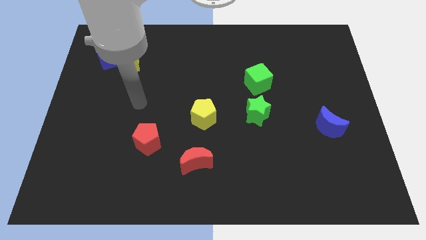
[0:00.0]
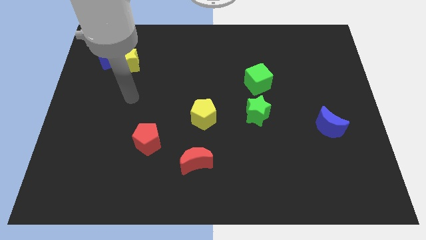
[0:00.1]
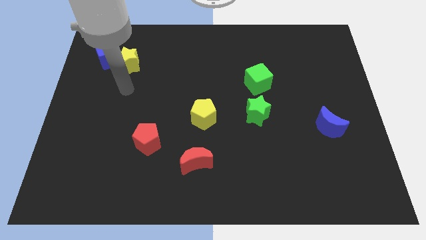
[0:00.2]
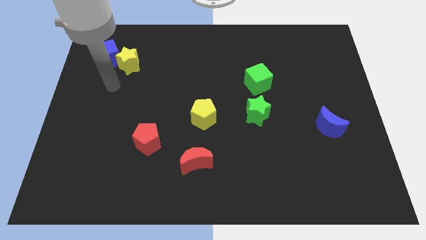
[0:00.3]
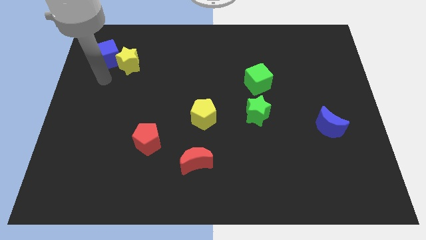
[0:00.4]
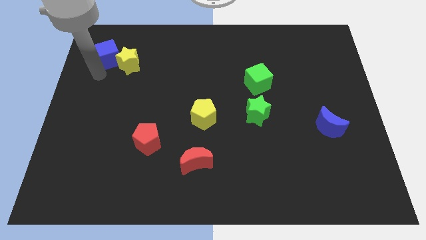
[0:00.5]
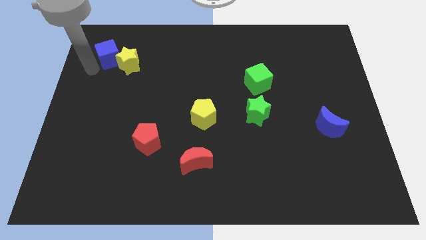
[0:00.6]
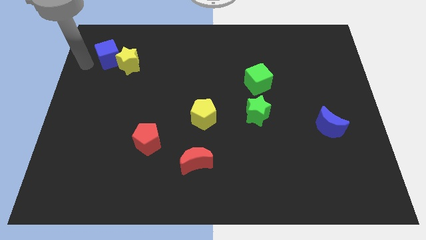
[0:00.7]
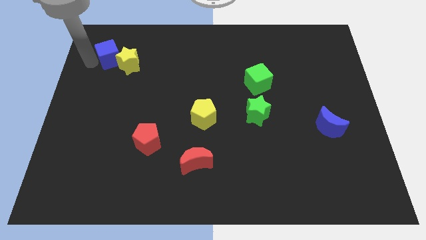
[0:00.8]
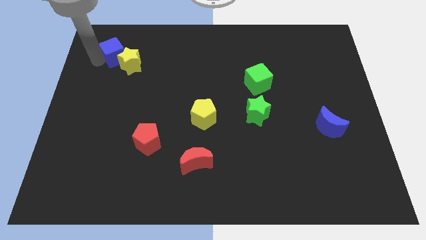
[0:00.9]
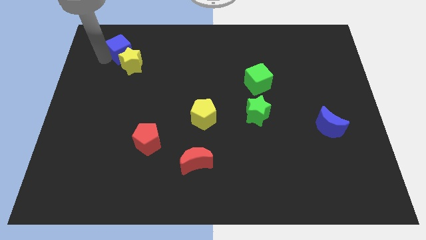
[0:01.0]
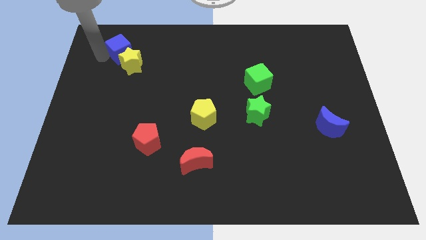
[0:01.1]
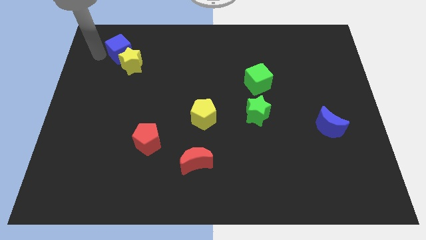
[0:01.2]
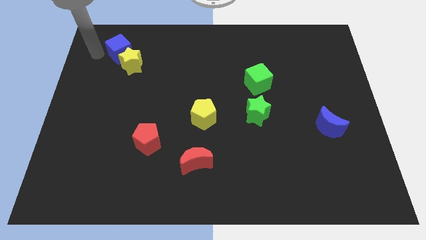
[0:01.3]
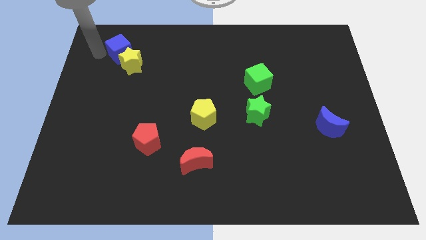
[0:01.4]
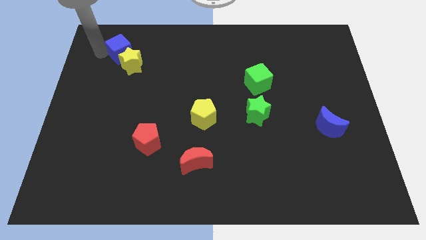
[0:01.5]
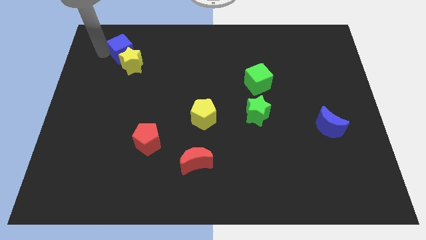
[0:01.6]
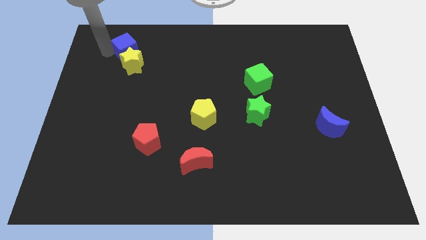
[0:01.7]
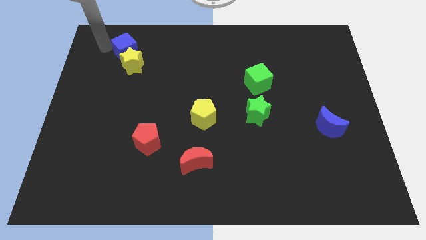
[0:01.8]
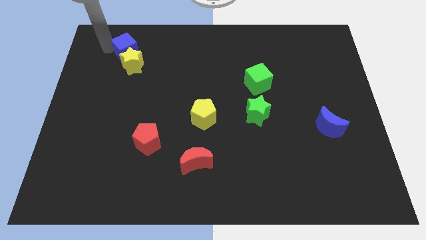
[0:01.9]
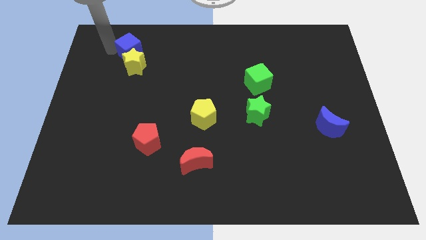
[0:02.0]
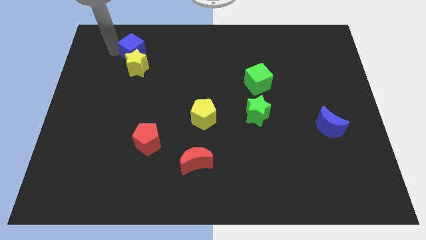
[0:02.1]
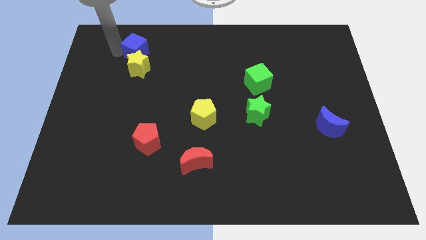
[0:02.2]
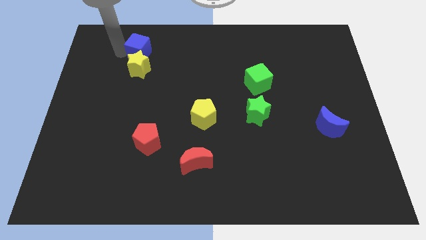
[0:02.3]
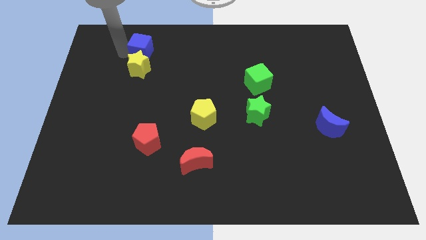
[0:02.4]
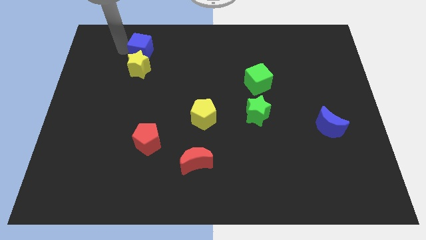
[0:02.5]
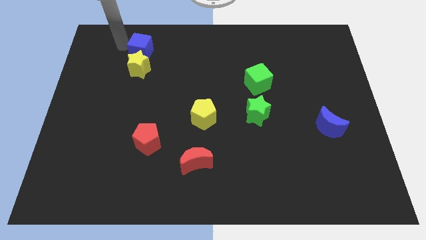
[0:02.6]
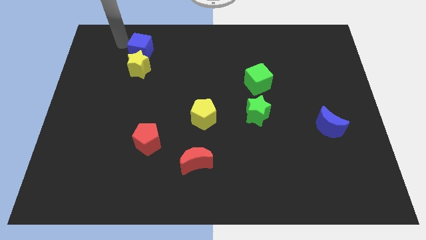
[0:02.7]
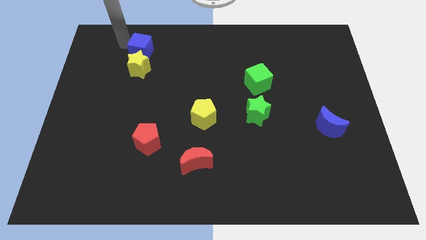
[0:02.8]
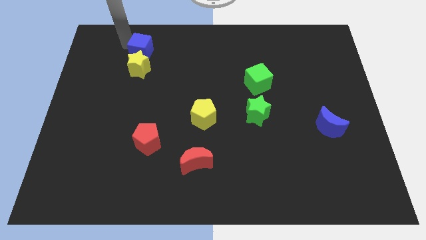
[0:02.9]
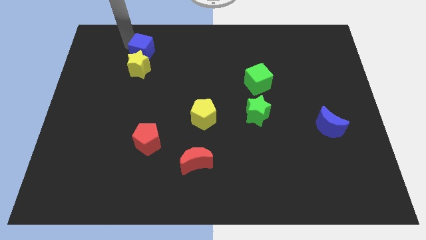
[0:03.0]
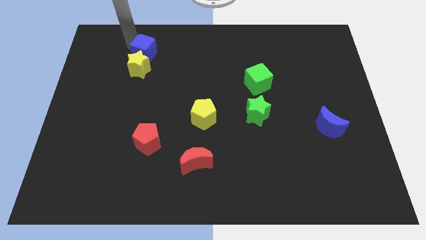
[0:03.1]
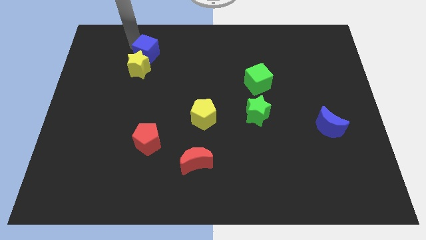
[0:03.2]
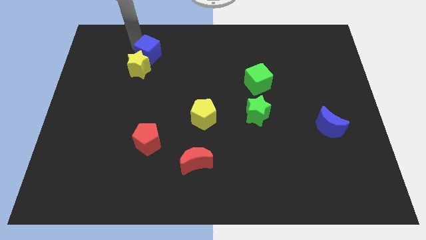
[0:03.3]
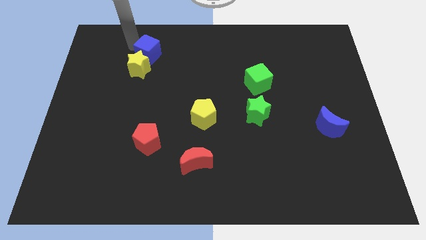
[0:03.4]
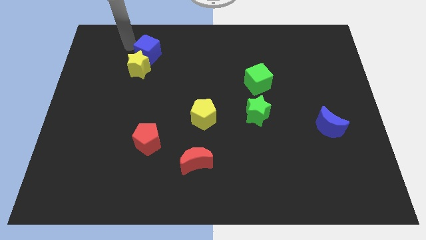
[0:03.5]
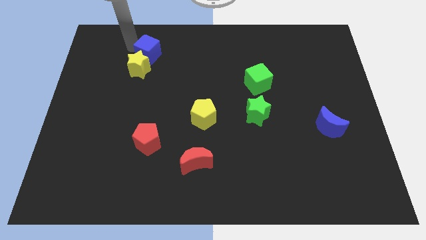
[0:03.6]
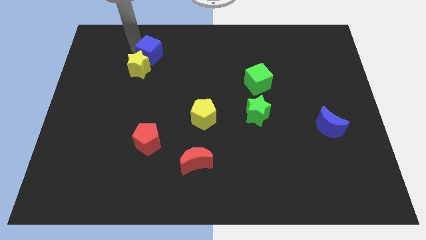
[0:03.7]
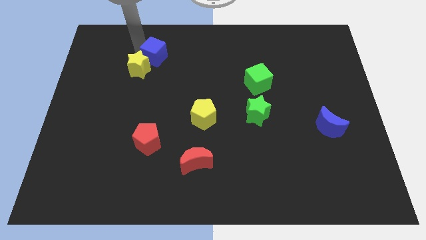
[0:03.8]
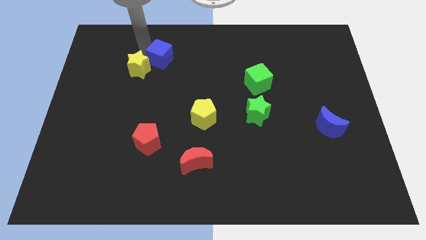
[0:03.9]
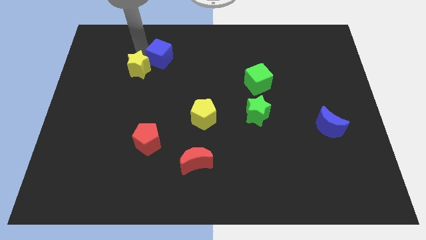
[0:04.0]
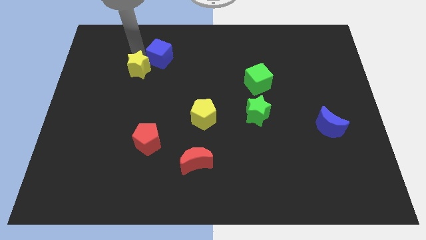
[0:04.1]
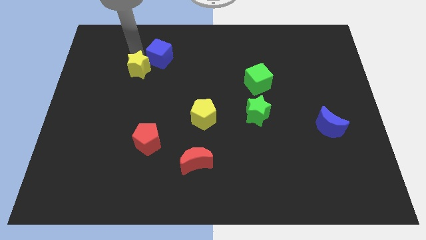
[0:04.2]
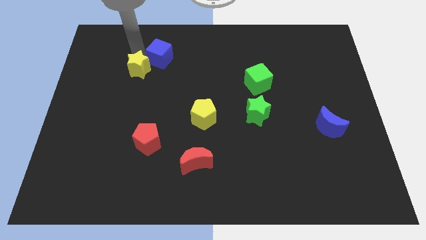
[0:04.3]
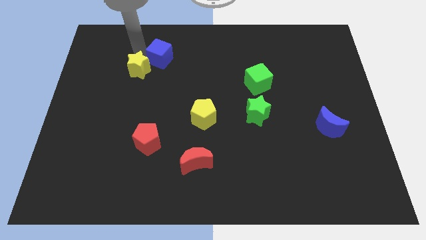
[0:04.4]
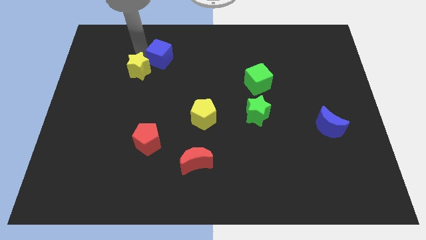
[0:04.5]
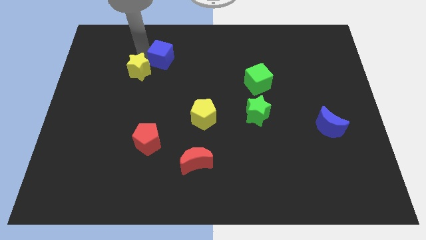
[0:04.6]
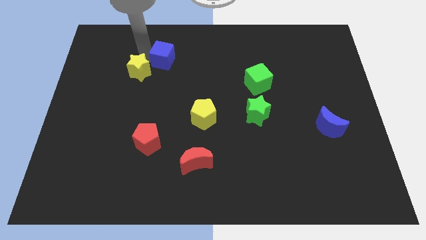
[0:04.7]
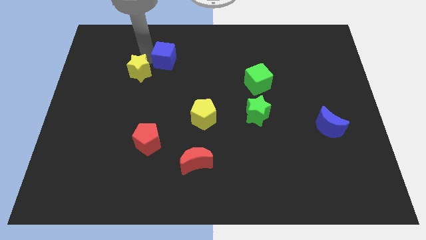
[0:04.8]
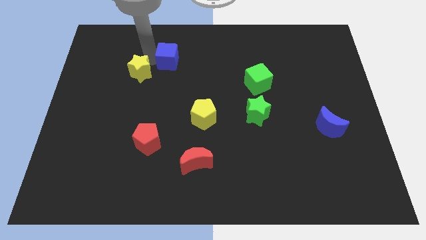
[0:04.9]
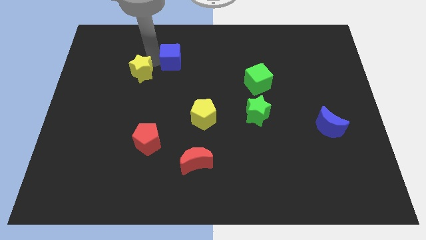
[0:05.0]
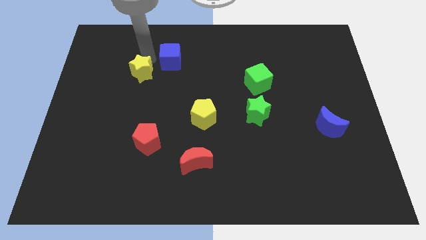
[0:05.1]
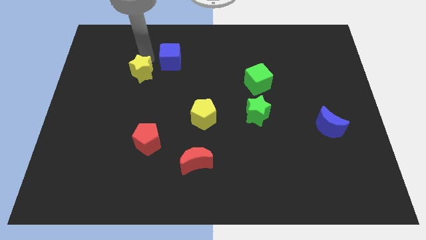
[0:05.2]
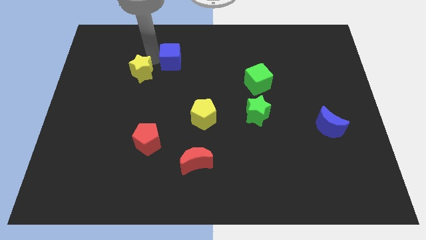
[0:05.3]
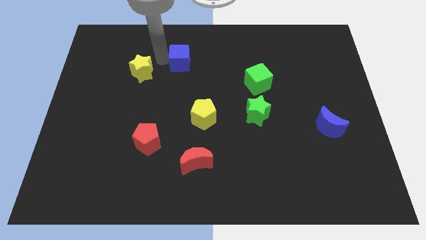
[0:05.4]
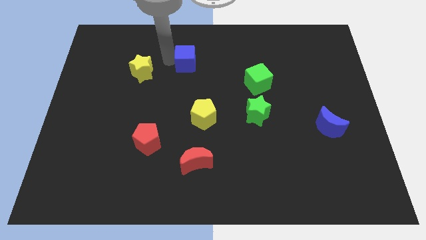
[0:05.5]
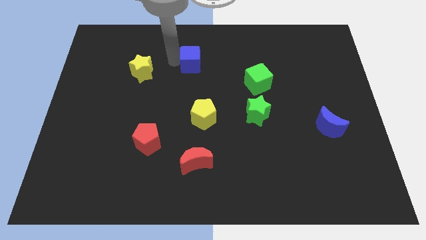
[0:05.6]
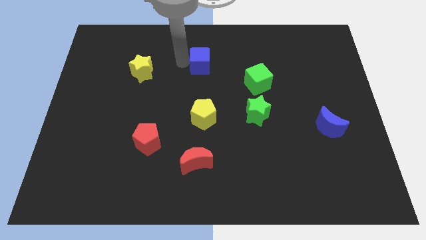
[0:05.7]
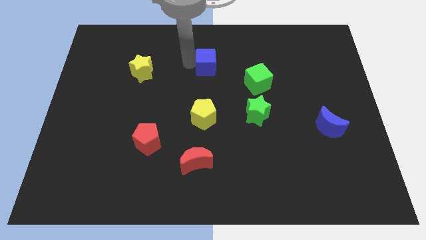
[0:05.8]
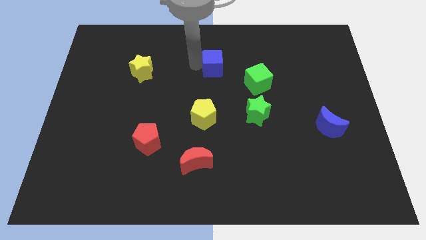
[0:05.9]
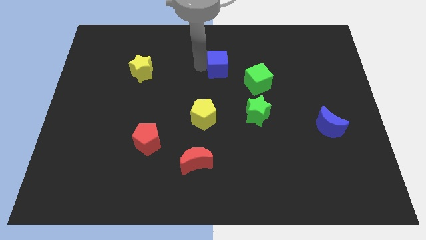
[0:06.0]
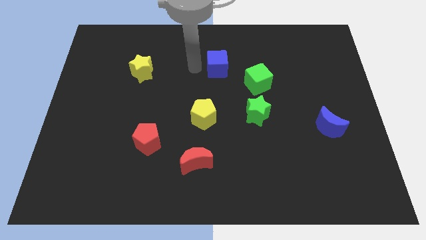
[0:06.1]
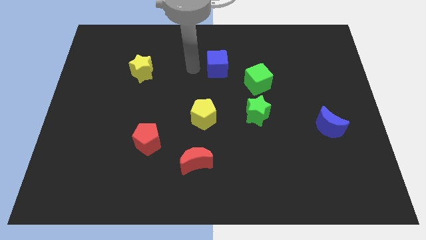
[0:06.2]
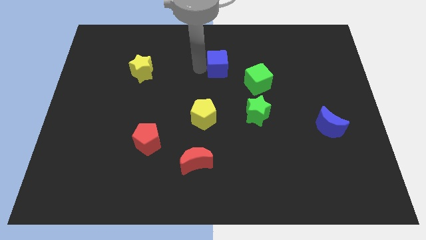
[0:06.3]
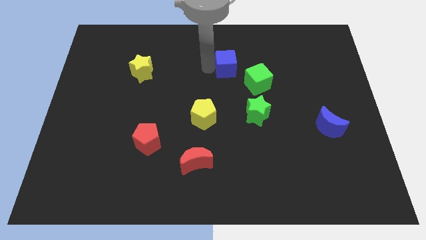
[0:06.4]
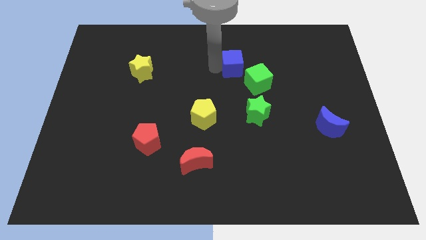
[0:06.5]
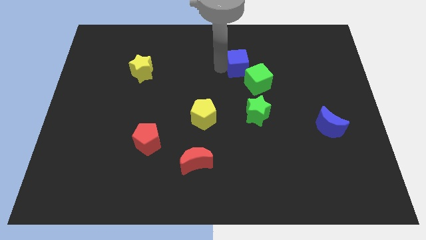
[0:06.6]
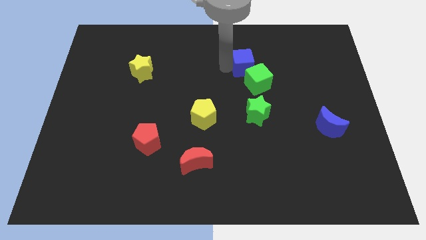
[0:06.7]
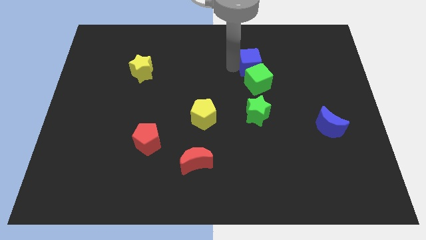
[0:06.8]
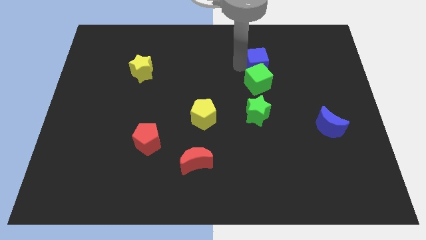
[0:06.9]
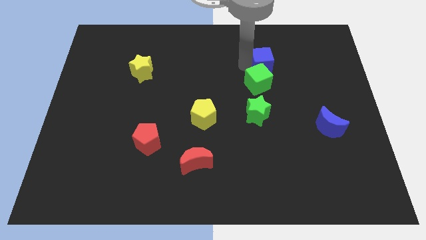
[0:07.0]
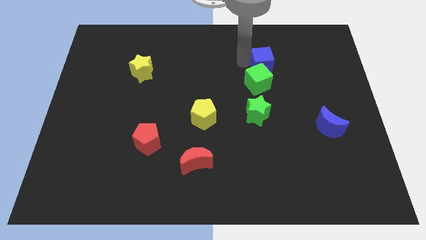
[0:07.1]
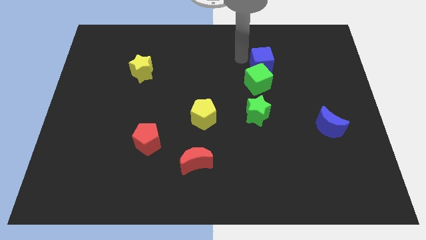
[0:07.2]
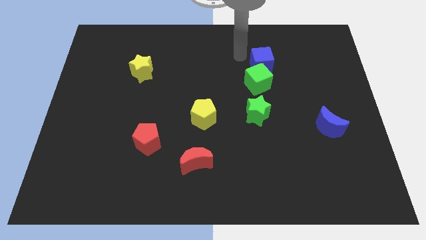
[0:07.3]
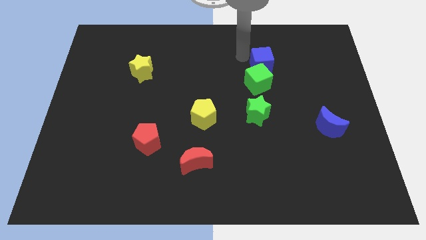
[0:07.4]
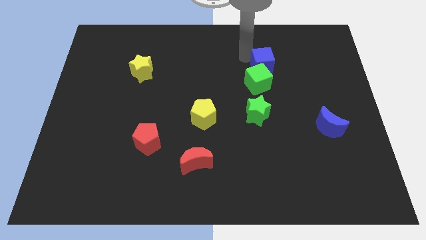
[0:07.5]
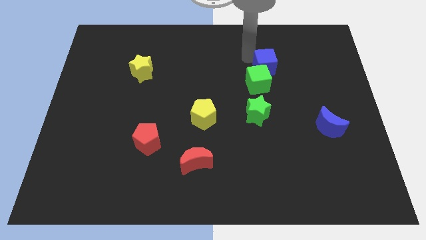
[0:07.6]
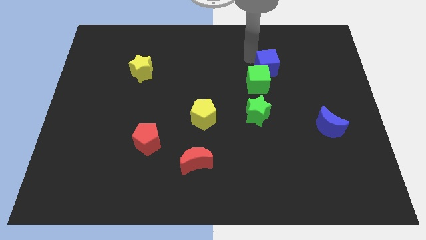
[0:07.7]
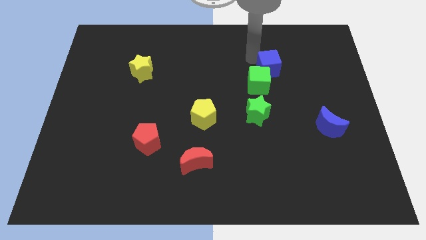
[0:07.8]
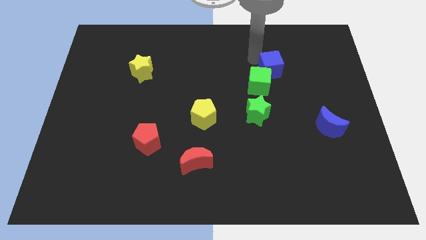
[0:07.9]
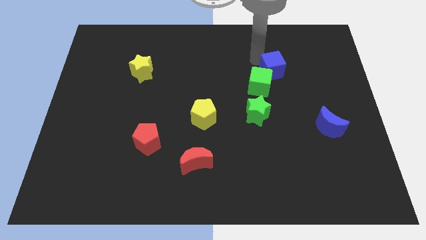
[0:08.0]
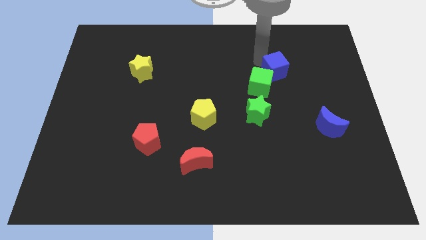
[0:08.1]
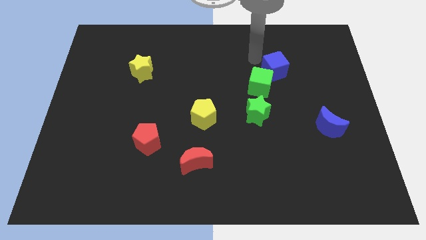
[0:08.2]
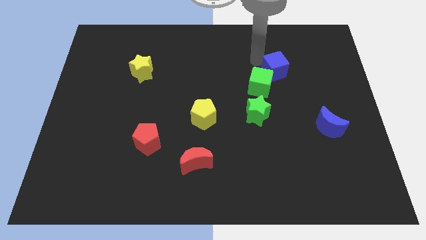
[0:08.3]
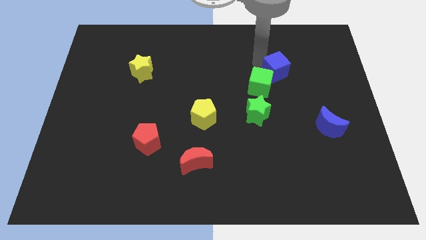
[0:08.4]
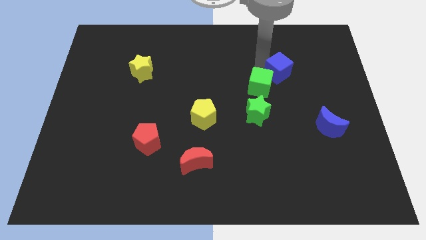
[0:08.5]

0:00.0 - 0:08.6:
slide the blue cube just right of the green cube
